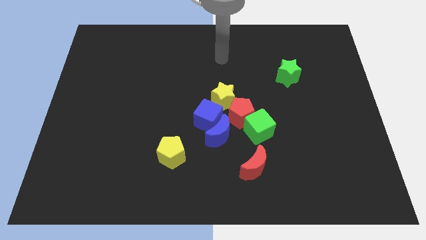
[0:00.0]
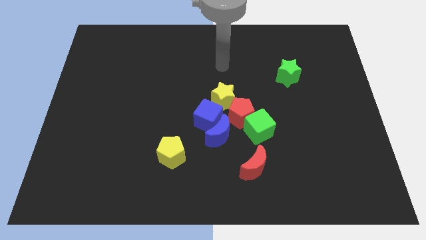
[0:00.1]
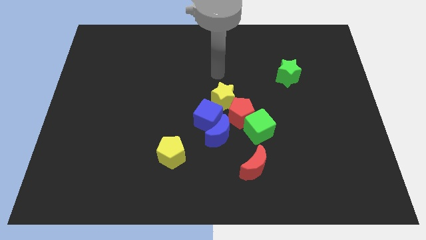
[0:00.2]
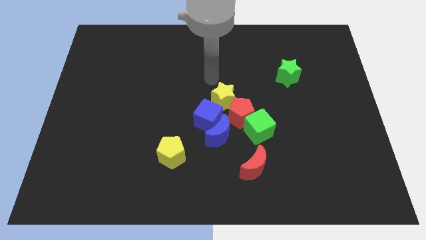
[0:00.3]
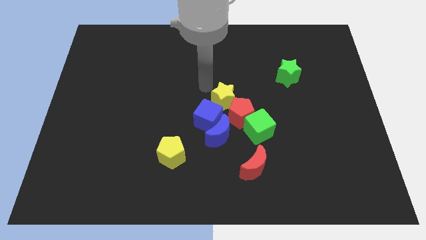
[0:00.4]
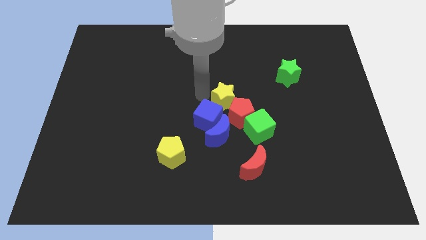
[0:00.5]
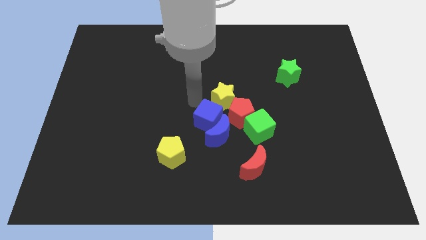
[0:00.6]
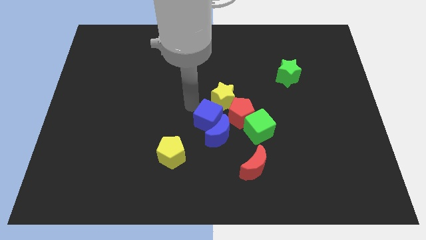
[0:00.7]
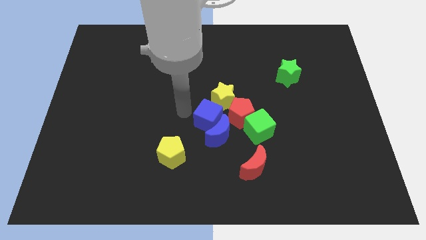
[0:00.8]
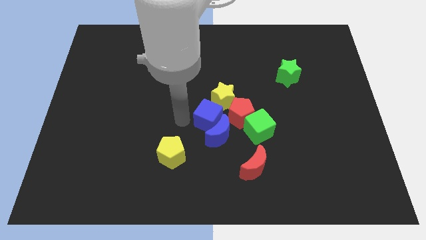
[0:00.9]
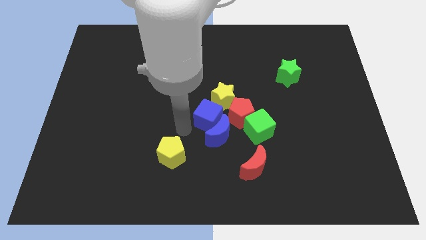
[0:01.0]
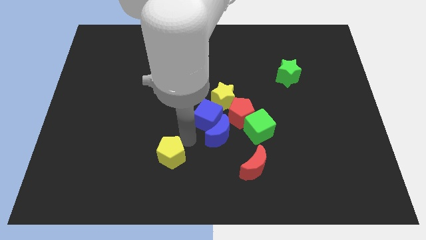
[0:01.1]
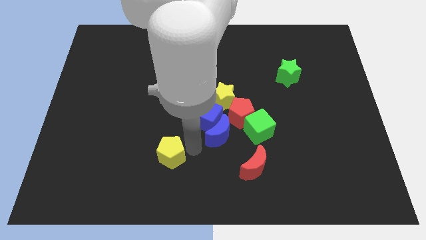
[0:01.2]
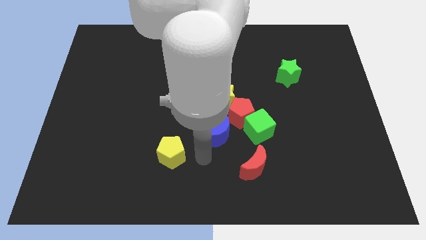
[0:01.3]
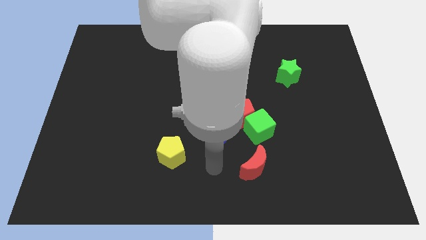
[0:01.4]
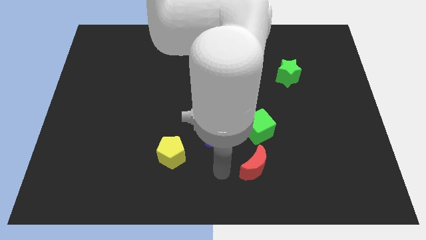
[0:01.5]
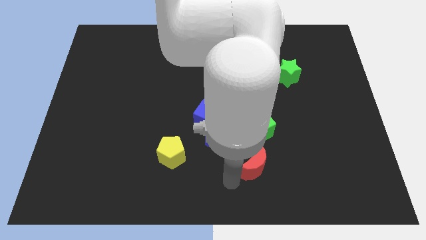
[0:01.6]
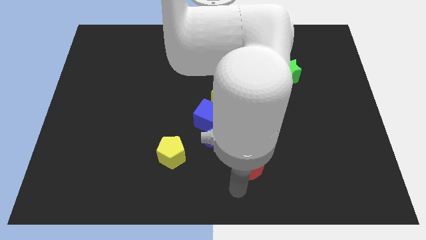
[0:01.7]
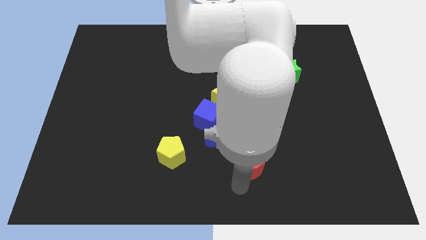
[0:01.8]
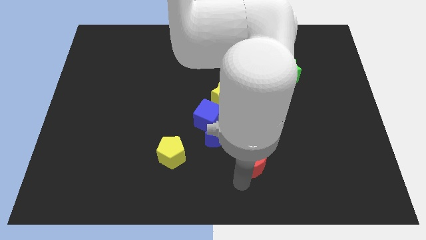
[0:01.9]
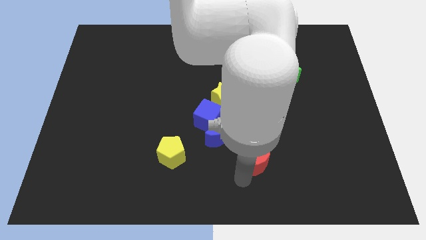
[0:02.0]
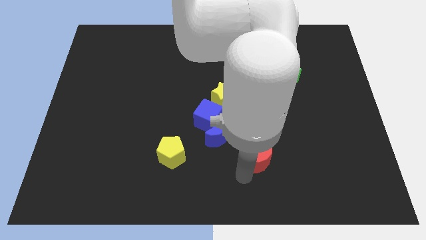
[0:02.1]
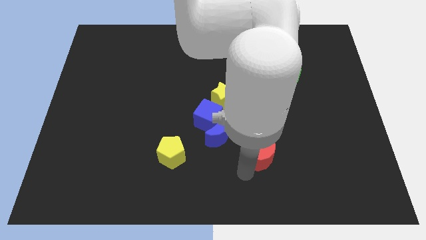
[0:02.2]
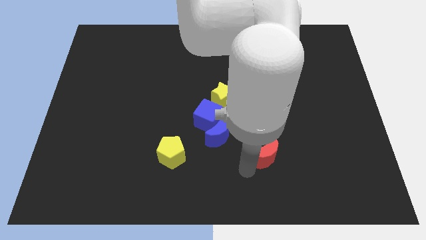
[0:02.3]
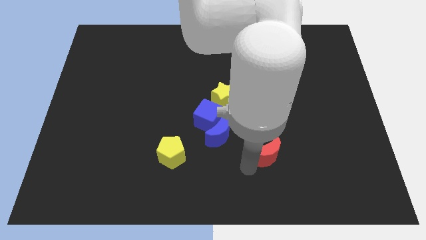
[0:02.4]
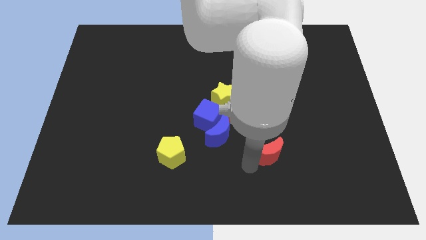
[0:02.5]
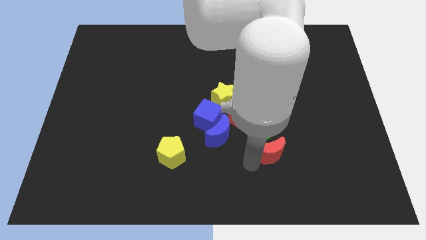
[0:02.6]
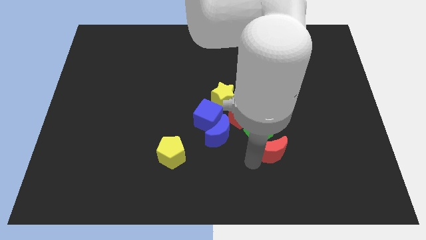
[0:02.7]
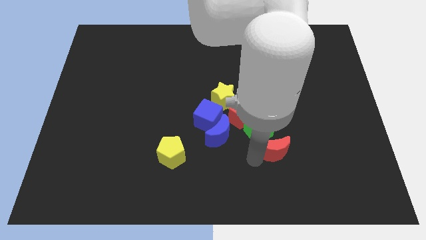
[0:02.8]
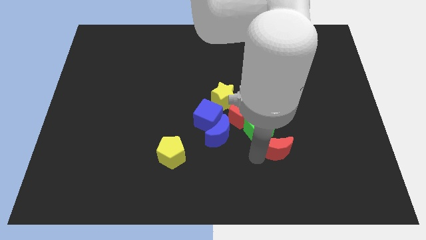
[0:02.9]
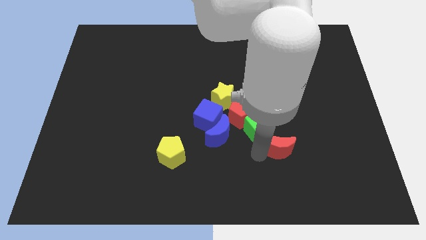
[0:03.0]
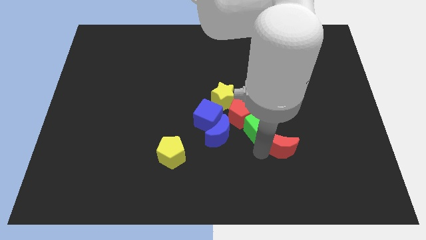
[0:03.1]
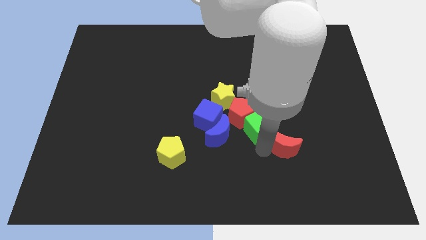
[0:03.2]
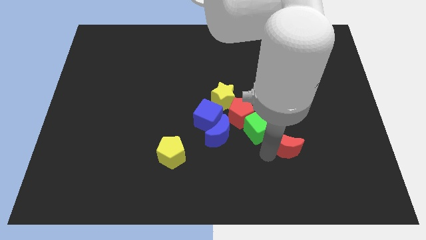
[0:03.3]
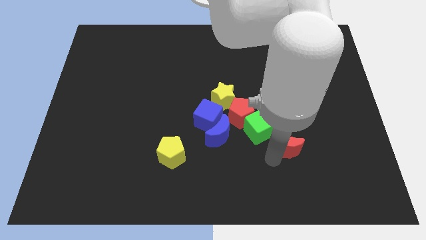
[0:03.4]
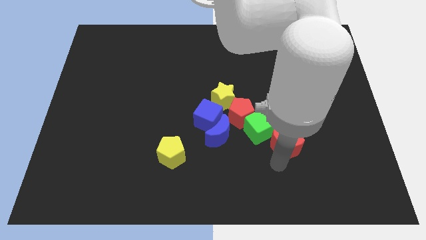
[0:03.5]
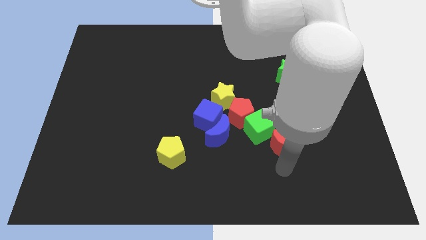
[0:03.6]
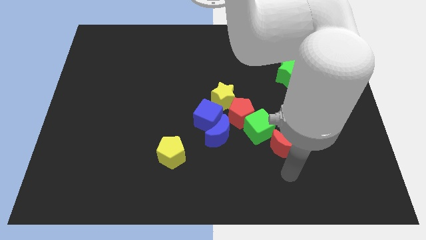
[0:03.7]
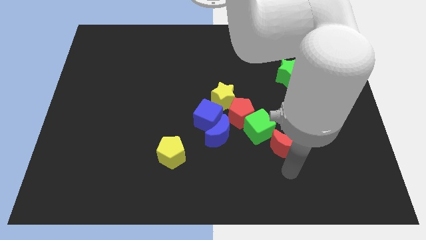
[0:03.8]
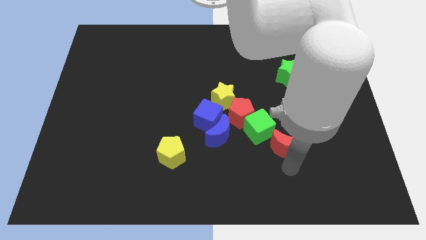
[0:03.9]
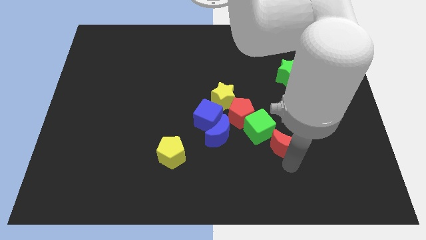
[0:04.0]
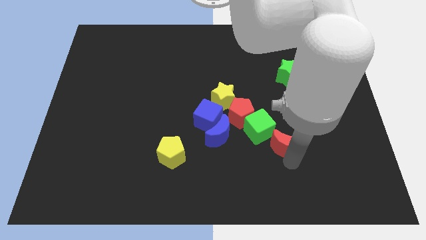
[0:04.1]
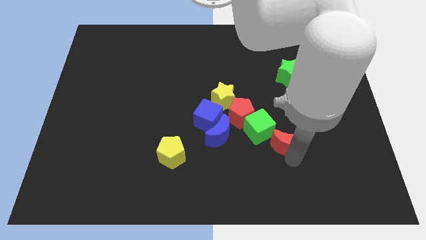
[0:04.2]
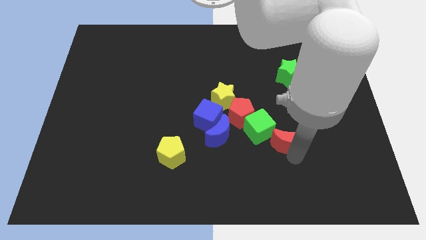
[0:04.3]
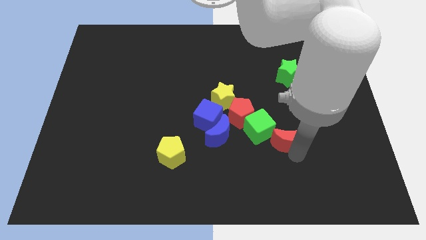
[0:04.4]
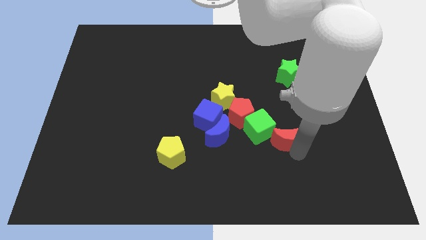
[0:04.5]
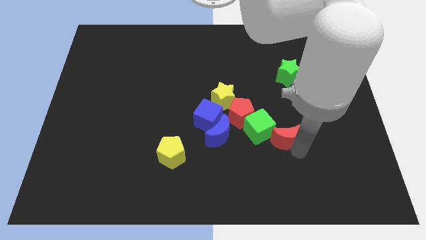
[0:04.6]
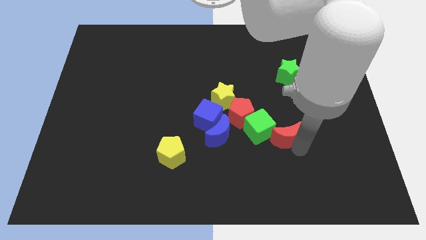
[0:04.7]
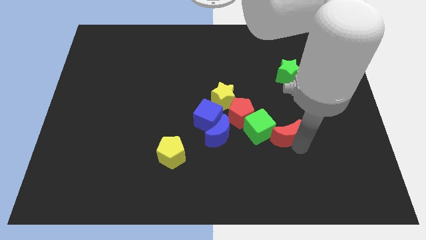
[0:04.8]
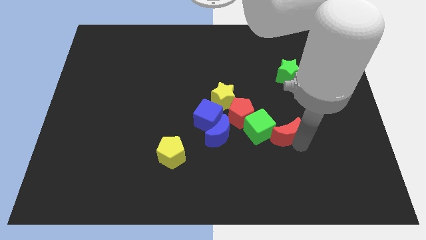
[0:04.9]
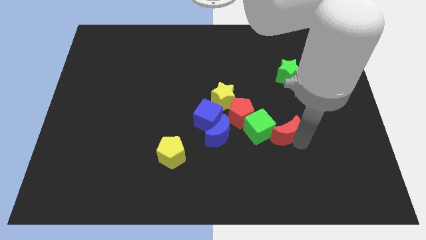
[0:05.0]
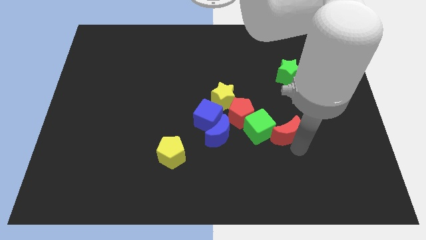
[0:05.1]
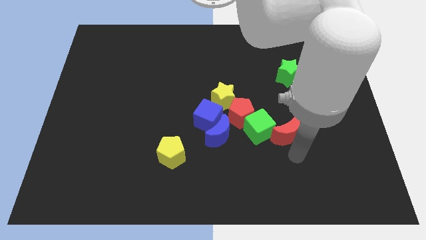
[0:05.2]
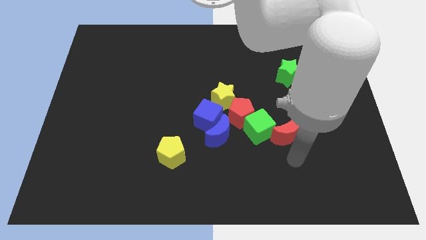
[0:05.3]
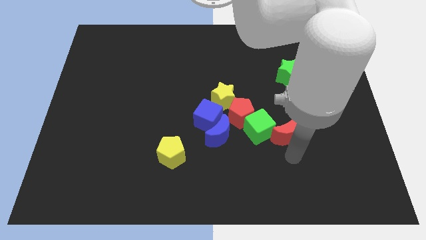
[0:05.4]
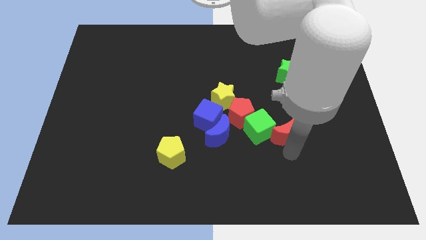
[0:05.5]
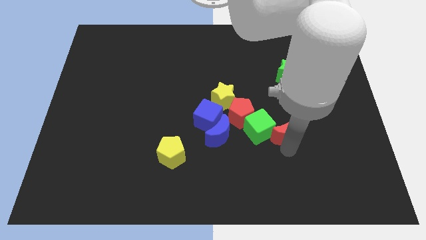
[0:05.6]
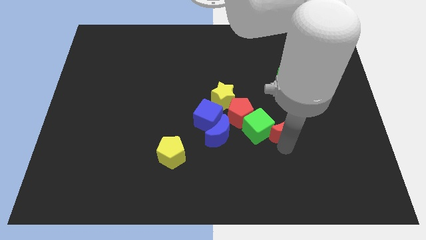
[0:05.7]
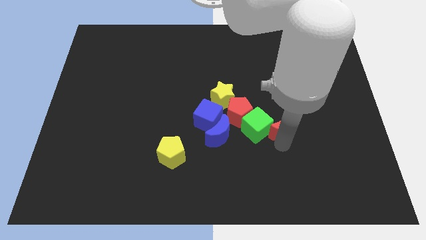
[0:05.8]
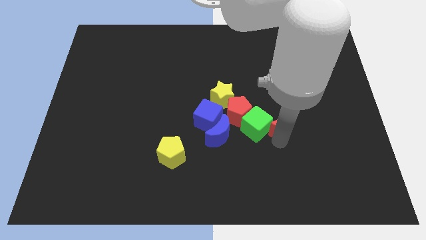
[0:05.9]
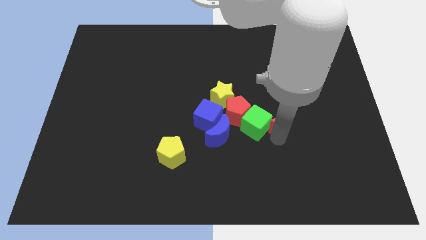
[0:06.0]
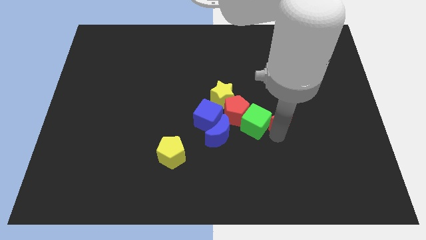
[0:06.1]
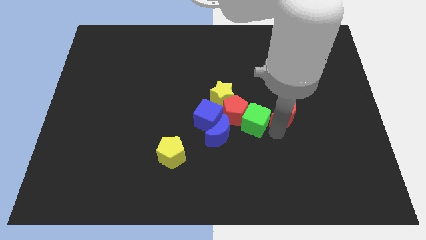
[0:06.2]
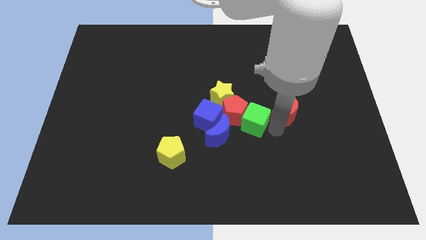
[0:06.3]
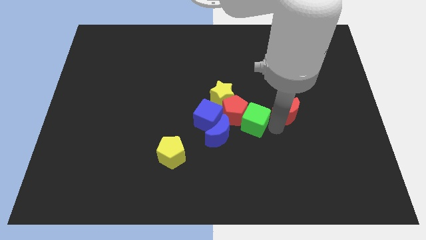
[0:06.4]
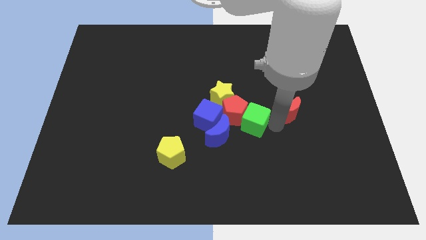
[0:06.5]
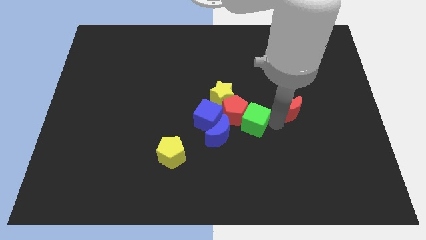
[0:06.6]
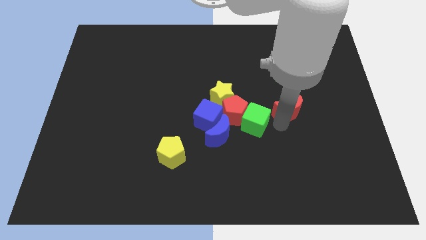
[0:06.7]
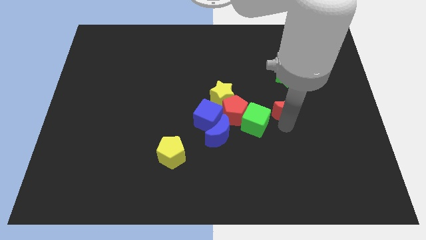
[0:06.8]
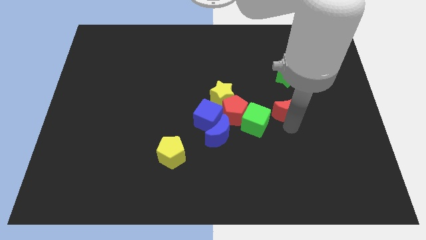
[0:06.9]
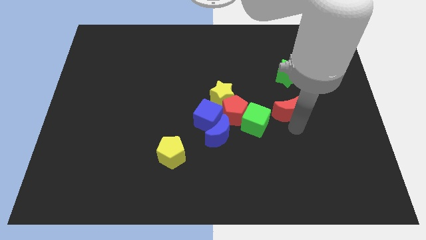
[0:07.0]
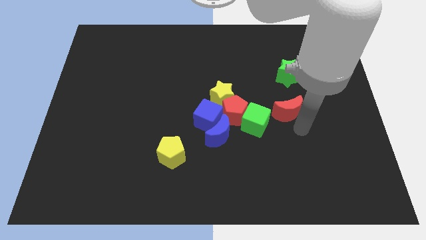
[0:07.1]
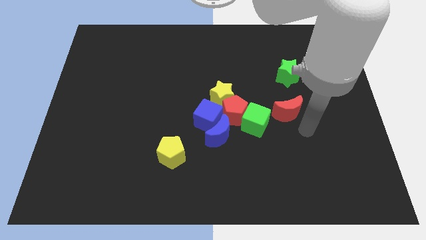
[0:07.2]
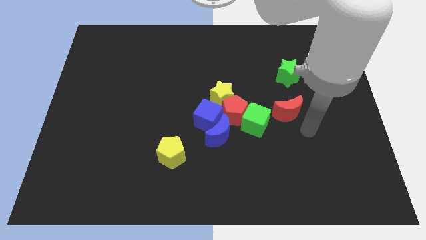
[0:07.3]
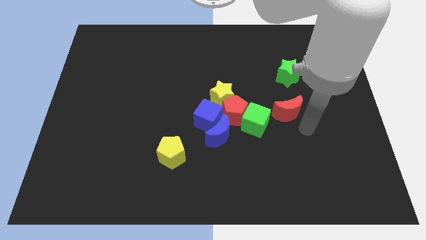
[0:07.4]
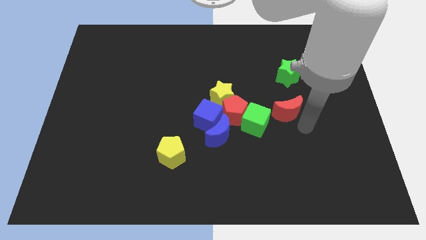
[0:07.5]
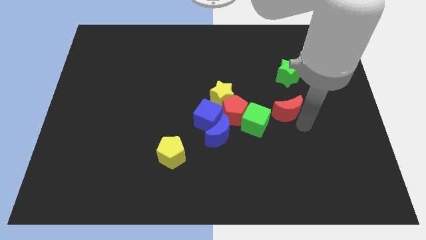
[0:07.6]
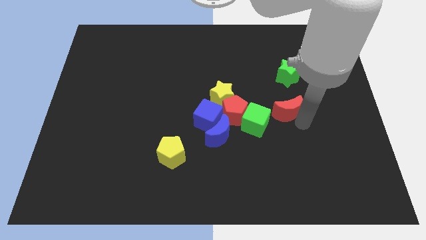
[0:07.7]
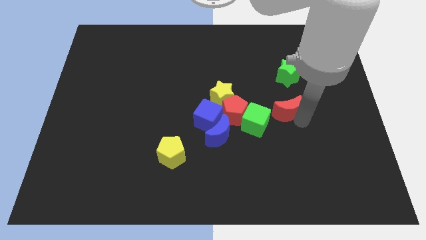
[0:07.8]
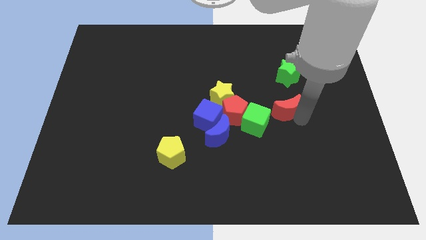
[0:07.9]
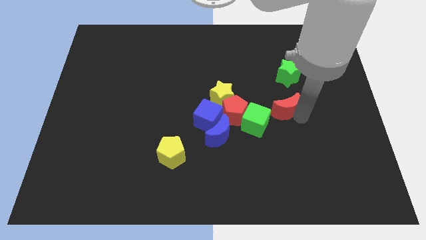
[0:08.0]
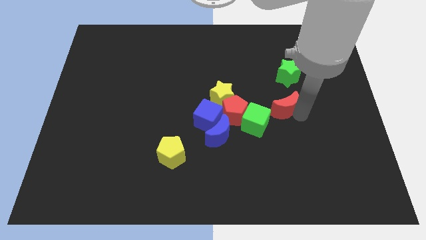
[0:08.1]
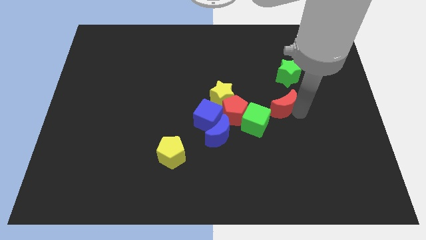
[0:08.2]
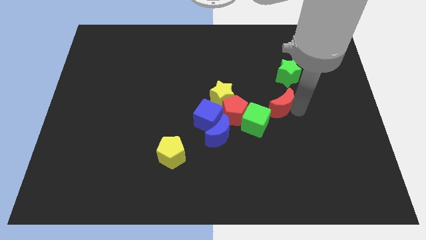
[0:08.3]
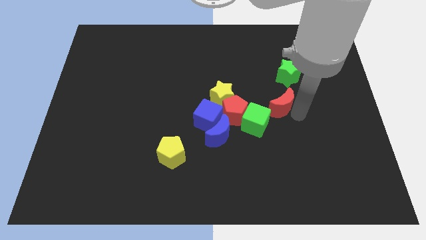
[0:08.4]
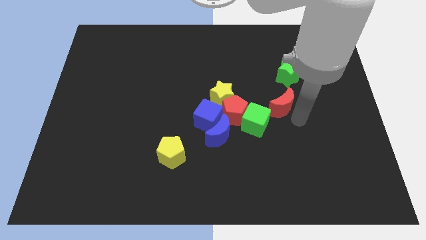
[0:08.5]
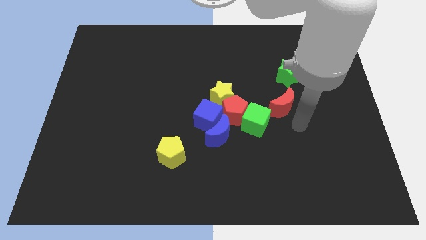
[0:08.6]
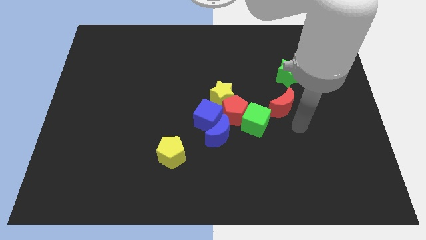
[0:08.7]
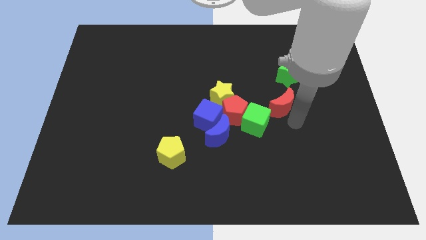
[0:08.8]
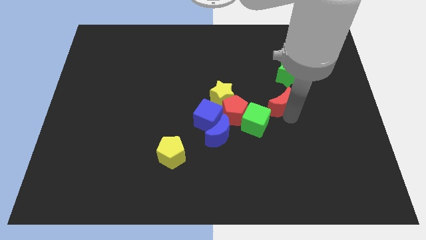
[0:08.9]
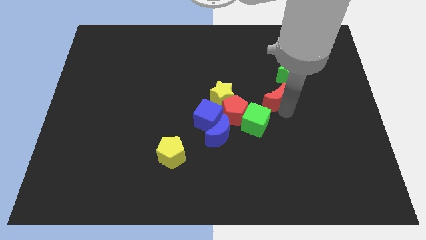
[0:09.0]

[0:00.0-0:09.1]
push the red moon to the bottom left of the green star
